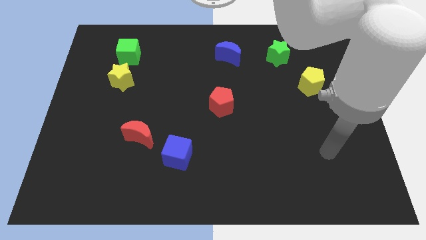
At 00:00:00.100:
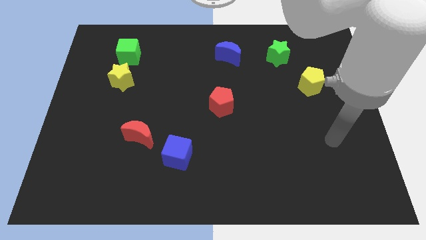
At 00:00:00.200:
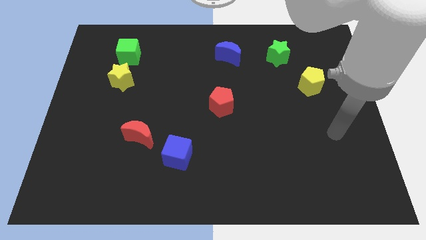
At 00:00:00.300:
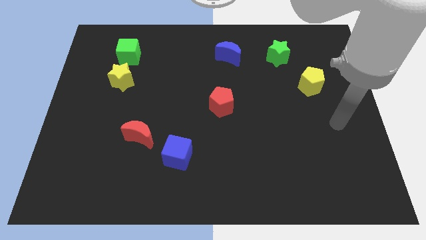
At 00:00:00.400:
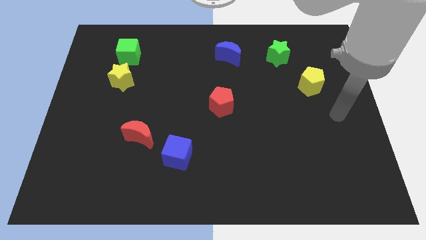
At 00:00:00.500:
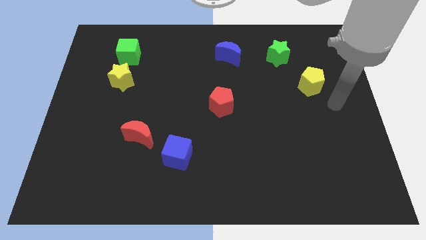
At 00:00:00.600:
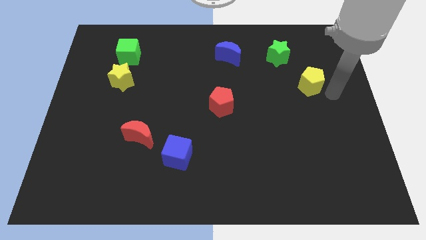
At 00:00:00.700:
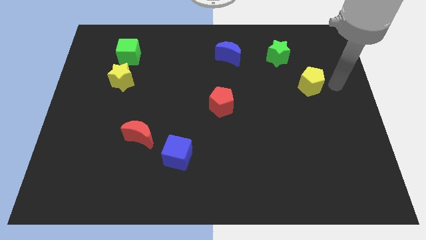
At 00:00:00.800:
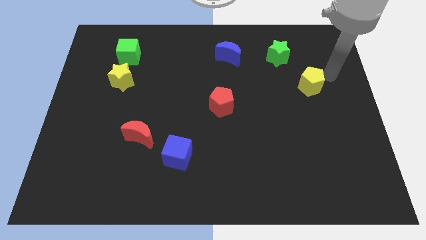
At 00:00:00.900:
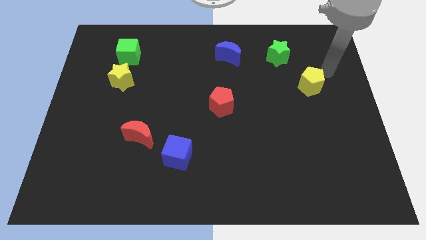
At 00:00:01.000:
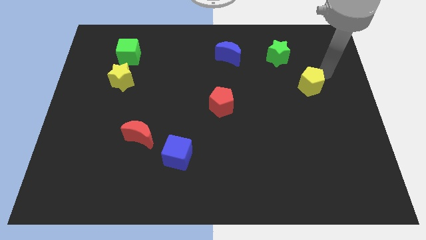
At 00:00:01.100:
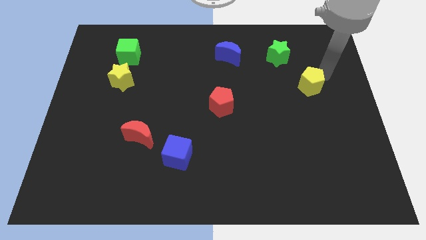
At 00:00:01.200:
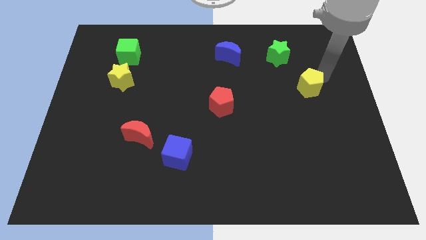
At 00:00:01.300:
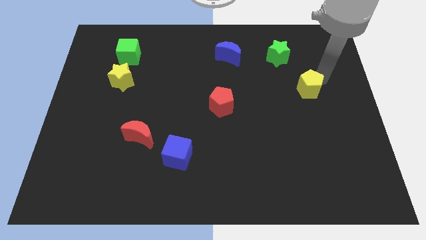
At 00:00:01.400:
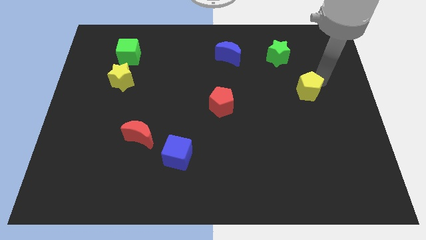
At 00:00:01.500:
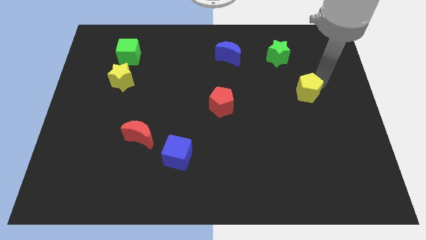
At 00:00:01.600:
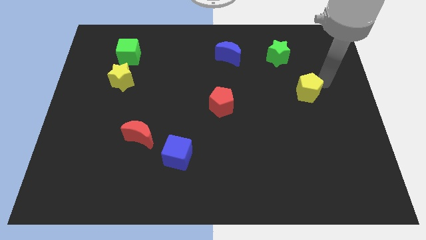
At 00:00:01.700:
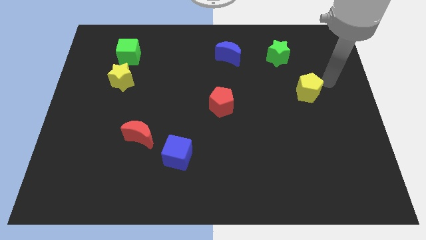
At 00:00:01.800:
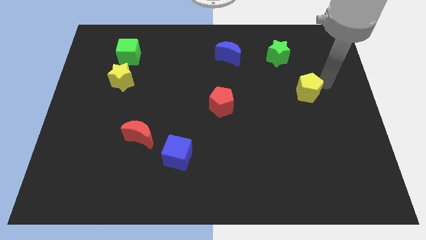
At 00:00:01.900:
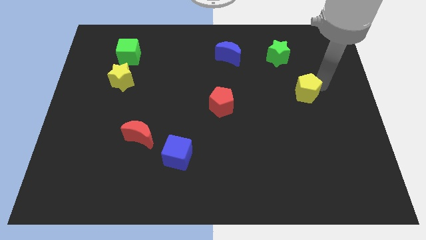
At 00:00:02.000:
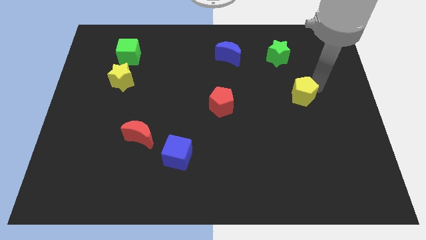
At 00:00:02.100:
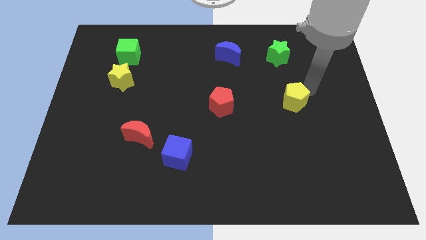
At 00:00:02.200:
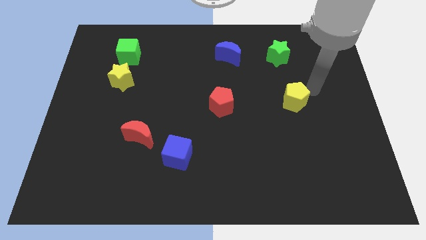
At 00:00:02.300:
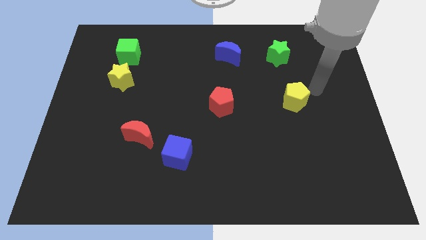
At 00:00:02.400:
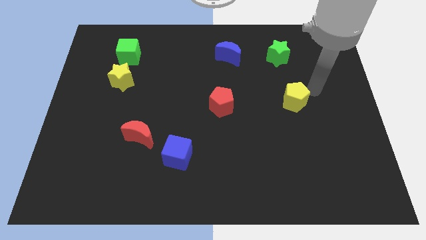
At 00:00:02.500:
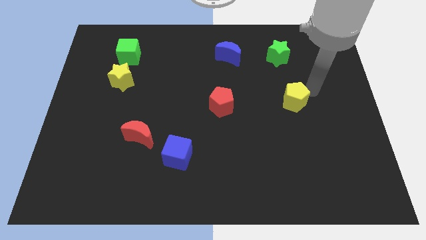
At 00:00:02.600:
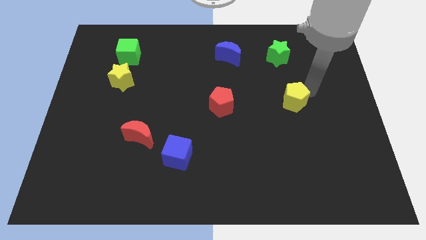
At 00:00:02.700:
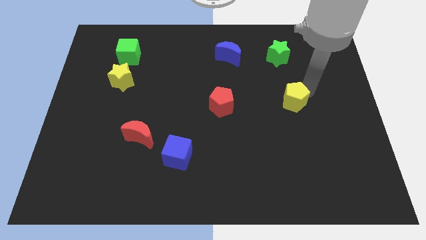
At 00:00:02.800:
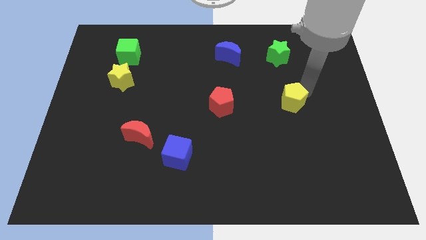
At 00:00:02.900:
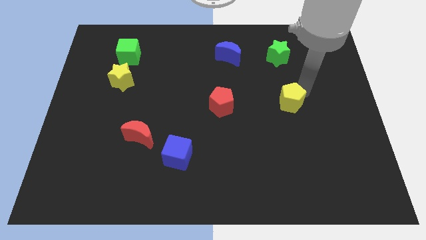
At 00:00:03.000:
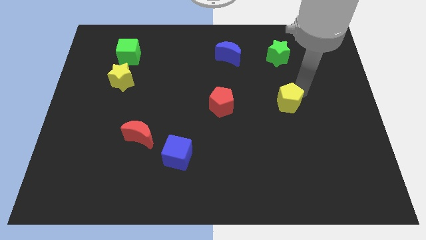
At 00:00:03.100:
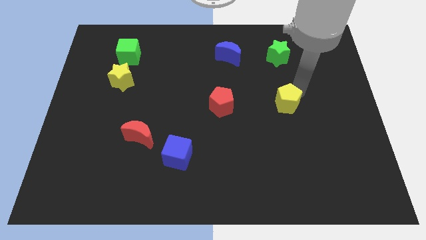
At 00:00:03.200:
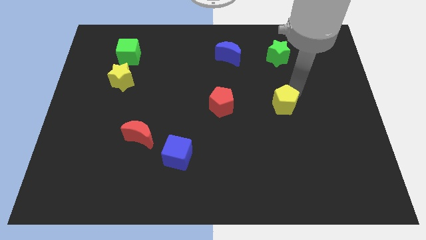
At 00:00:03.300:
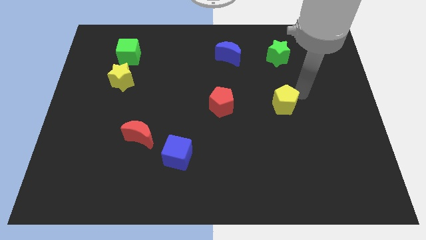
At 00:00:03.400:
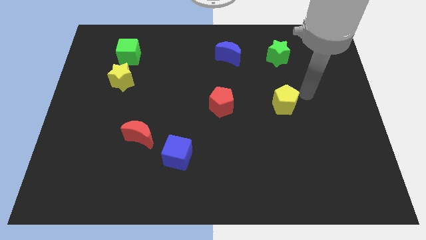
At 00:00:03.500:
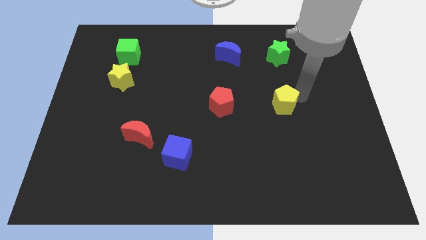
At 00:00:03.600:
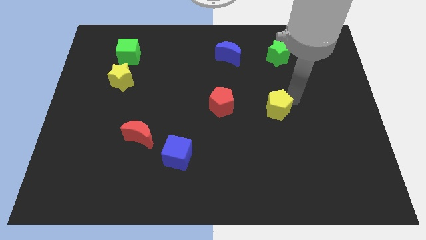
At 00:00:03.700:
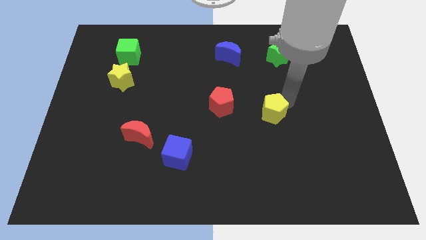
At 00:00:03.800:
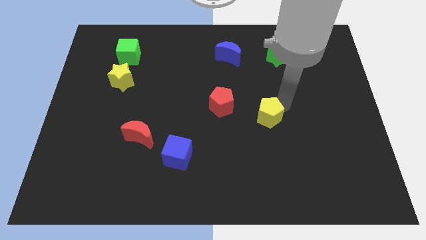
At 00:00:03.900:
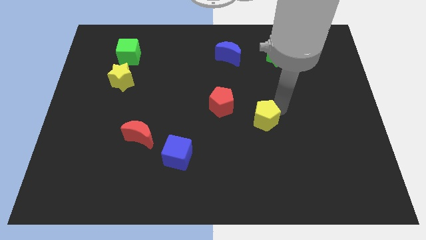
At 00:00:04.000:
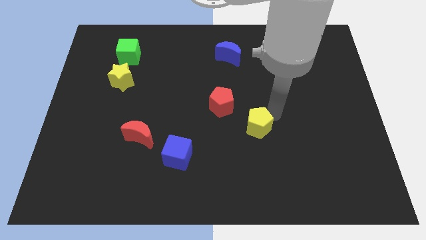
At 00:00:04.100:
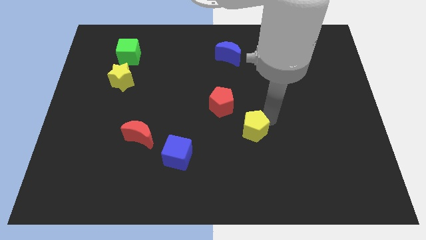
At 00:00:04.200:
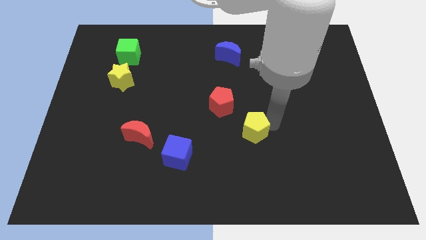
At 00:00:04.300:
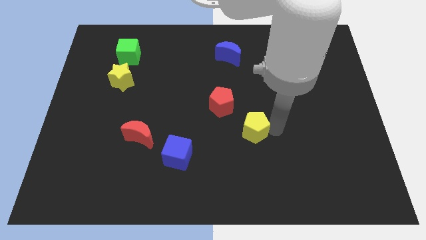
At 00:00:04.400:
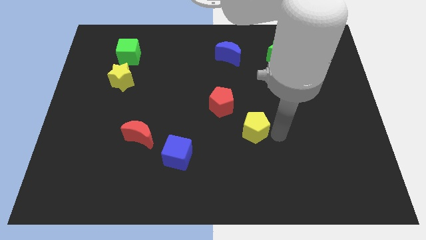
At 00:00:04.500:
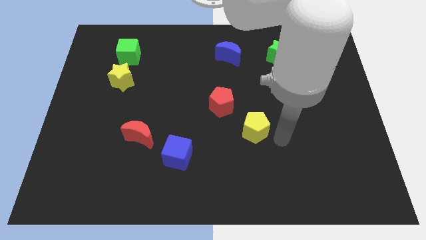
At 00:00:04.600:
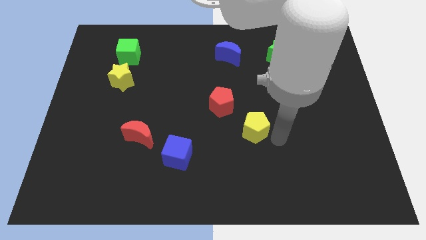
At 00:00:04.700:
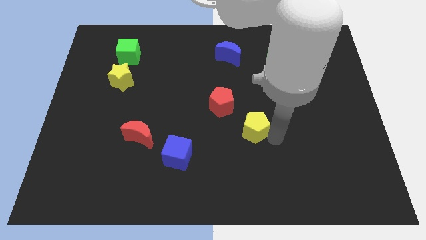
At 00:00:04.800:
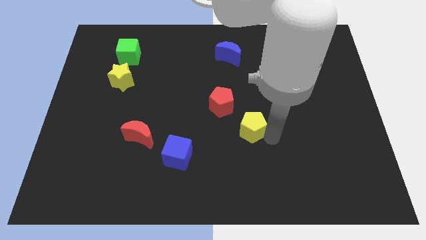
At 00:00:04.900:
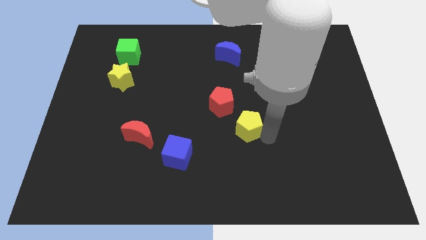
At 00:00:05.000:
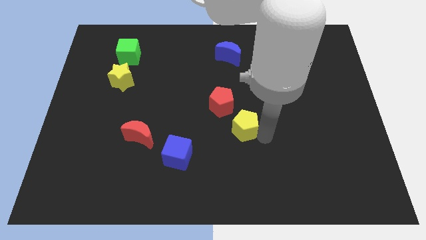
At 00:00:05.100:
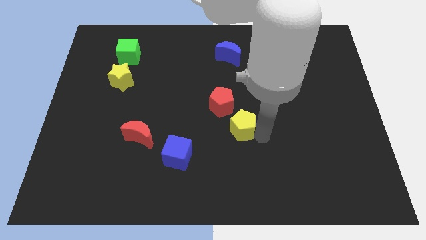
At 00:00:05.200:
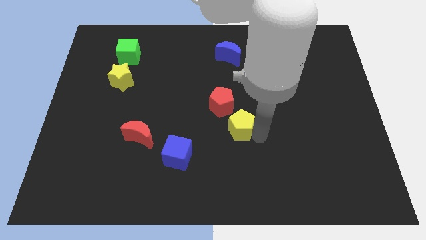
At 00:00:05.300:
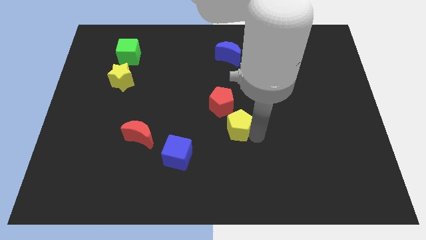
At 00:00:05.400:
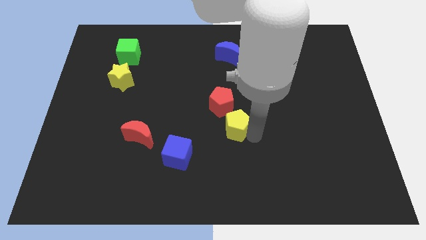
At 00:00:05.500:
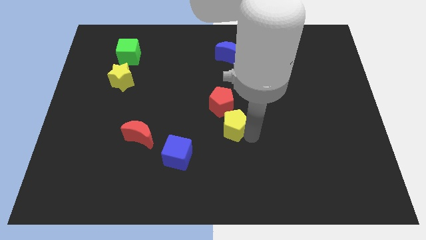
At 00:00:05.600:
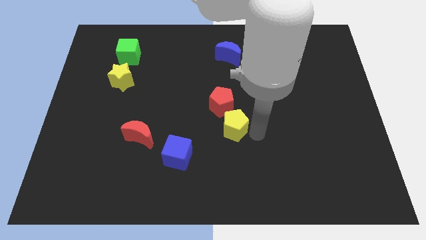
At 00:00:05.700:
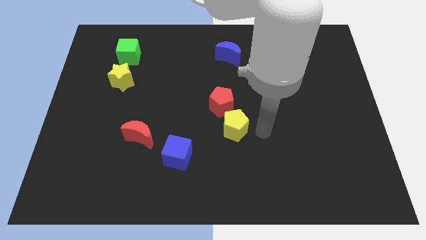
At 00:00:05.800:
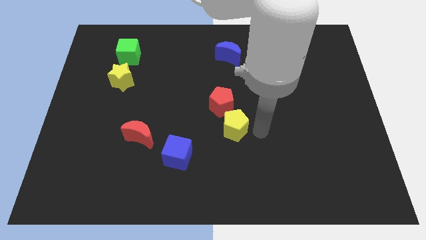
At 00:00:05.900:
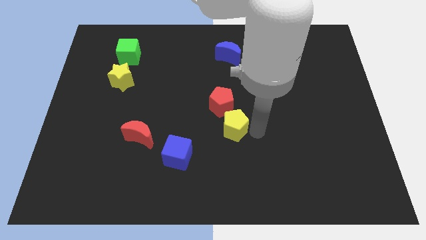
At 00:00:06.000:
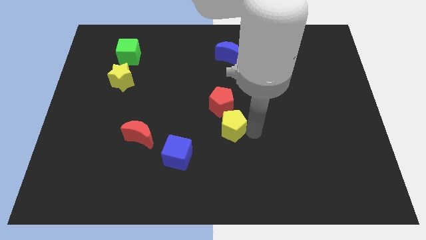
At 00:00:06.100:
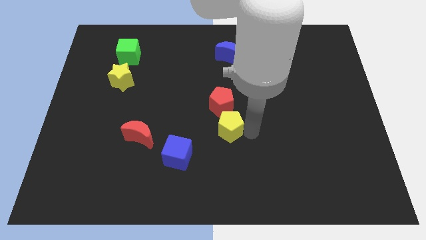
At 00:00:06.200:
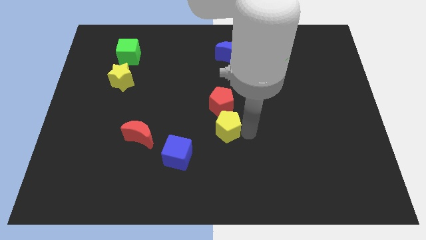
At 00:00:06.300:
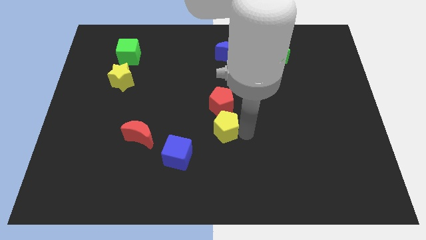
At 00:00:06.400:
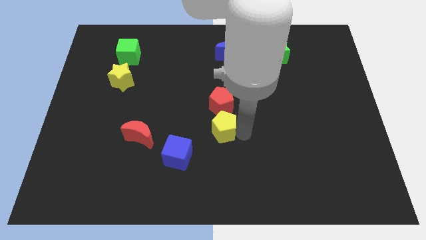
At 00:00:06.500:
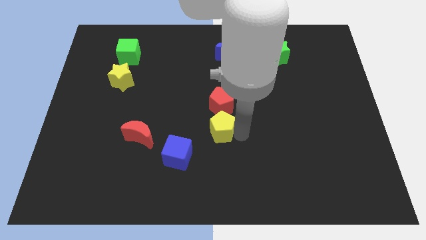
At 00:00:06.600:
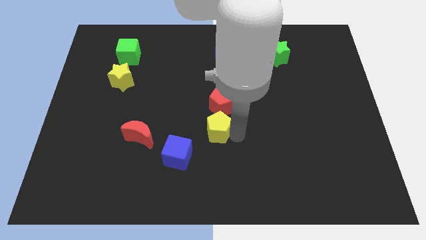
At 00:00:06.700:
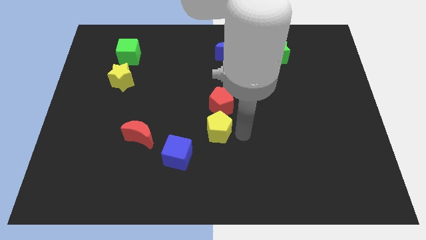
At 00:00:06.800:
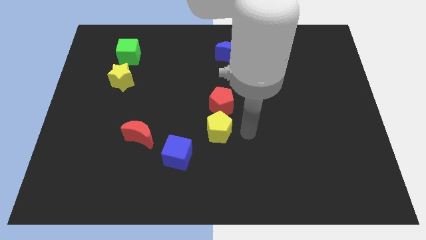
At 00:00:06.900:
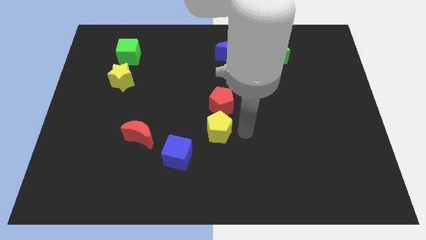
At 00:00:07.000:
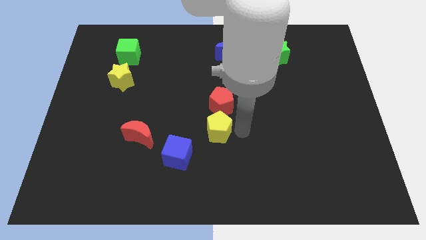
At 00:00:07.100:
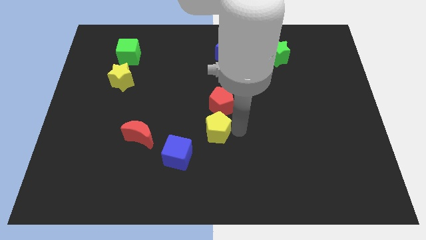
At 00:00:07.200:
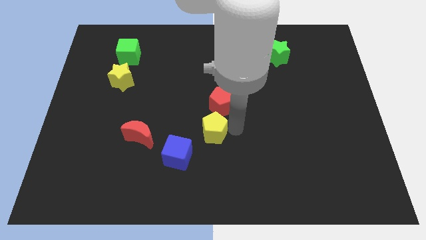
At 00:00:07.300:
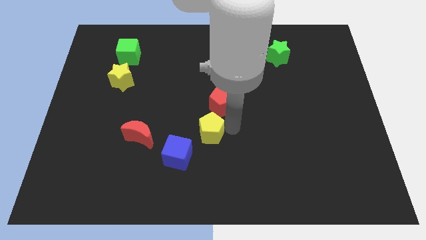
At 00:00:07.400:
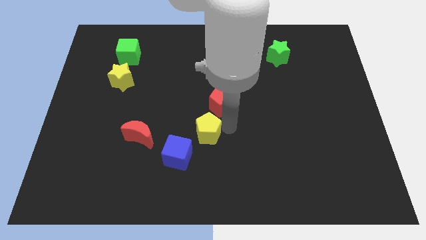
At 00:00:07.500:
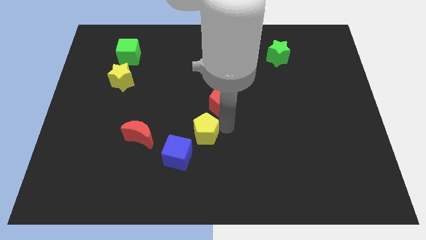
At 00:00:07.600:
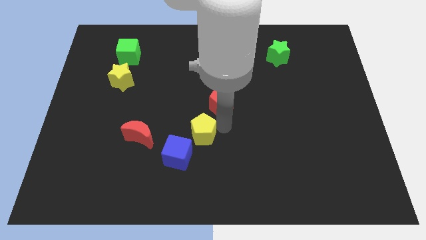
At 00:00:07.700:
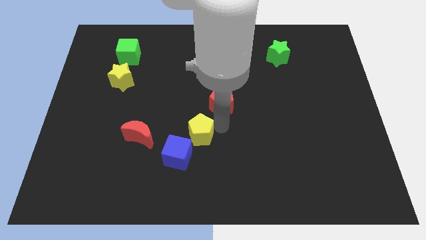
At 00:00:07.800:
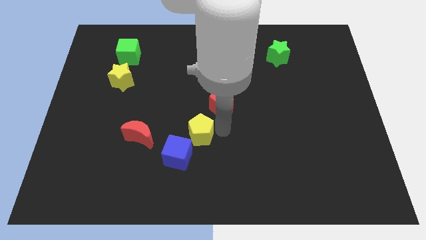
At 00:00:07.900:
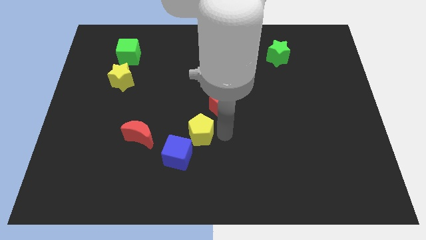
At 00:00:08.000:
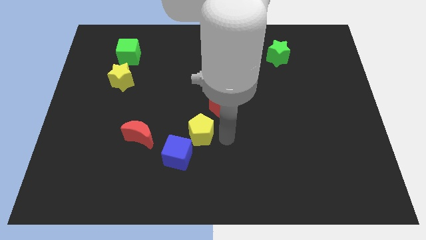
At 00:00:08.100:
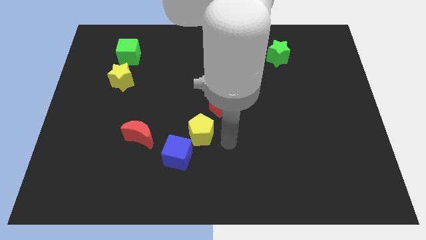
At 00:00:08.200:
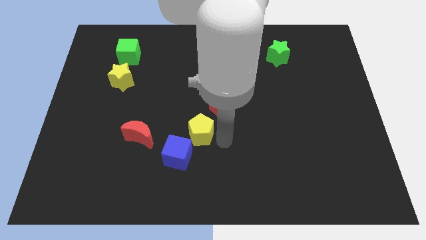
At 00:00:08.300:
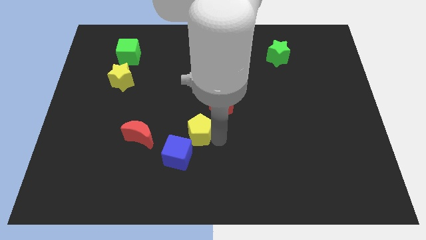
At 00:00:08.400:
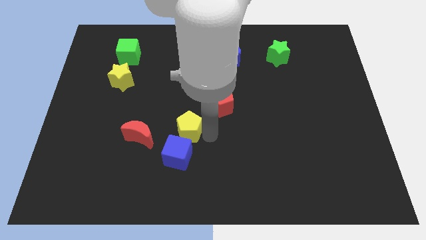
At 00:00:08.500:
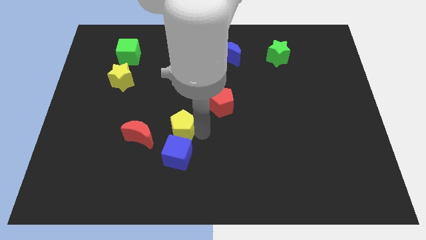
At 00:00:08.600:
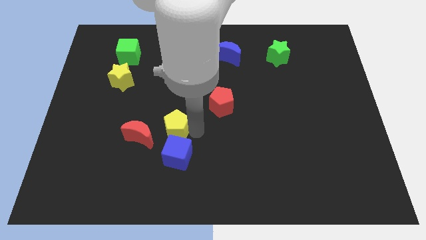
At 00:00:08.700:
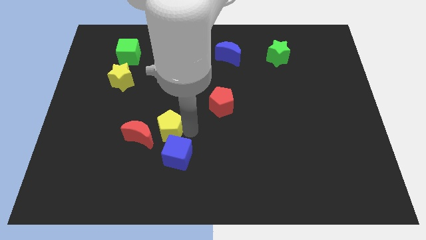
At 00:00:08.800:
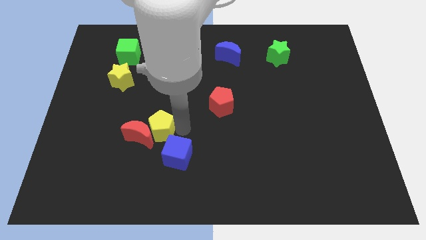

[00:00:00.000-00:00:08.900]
move the yellow pentagon towards the red moon
